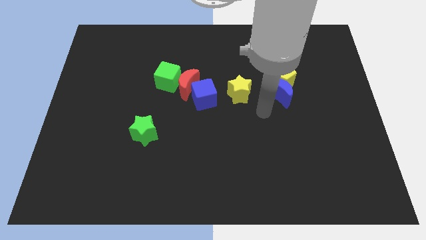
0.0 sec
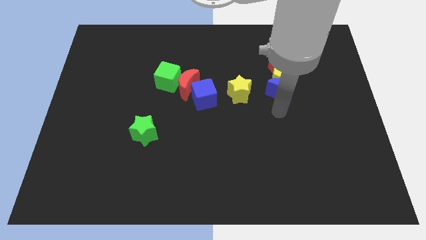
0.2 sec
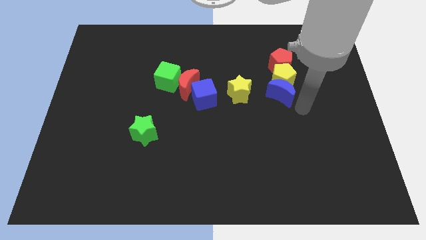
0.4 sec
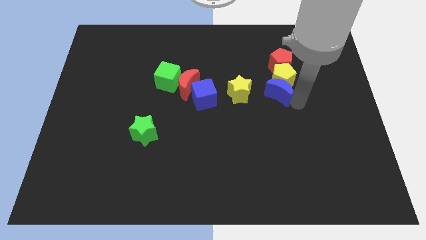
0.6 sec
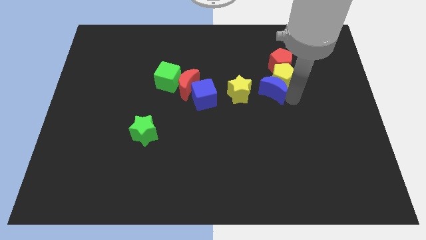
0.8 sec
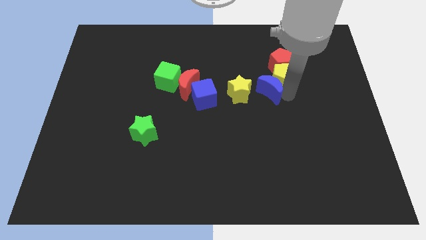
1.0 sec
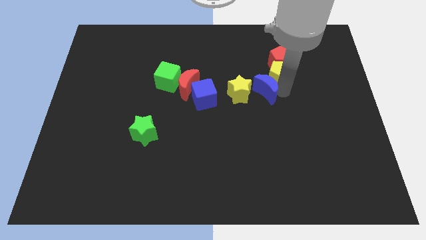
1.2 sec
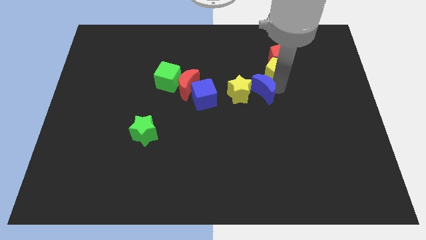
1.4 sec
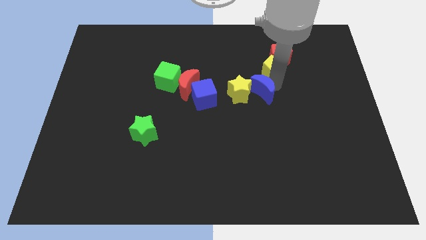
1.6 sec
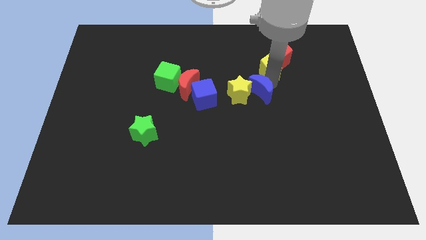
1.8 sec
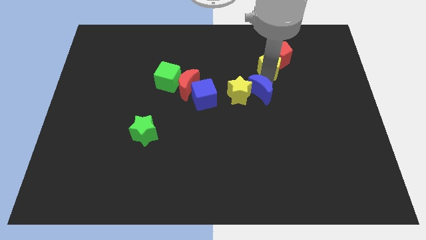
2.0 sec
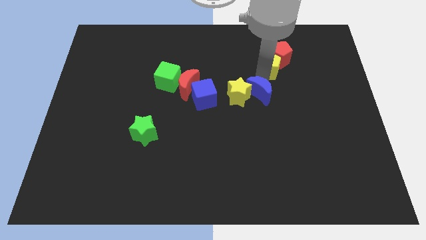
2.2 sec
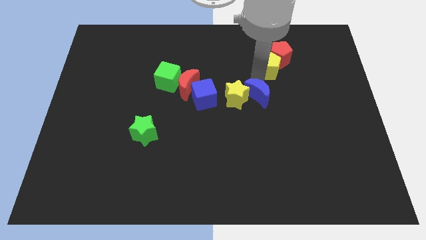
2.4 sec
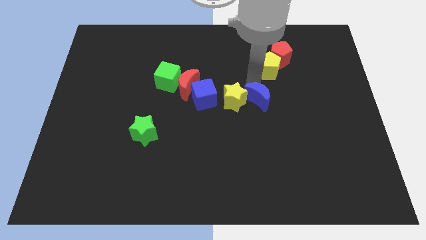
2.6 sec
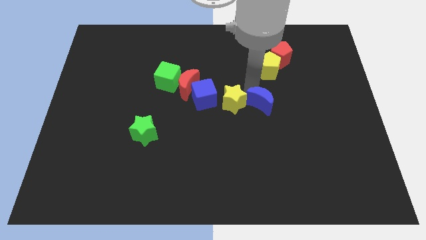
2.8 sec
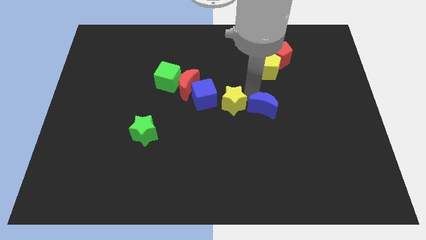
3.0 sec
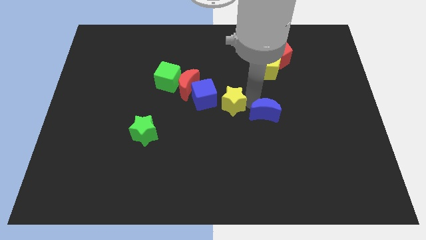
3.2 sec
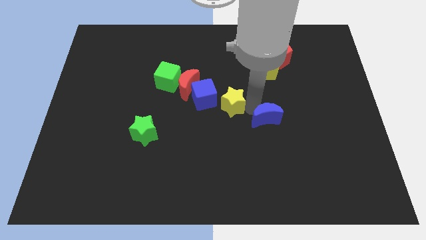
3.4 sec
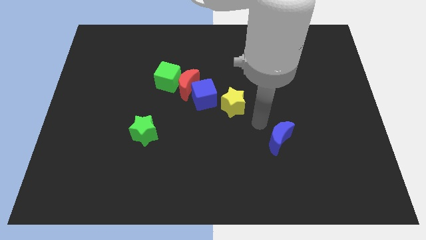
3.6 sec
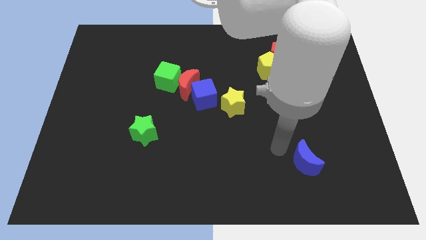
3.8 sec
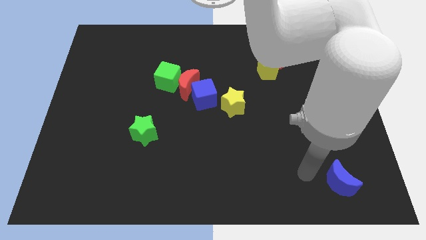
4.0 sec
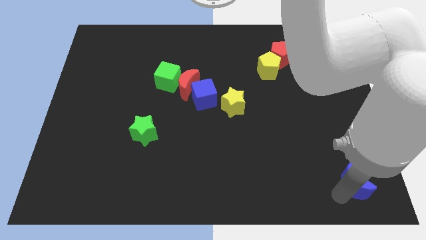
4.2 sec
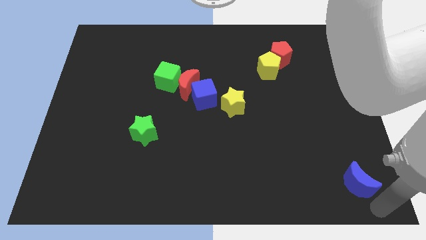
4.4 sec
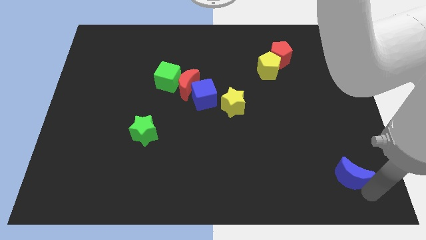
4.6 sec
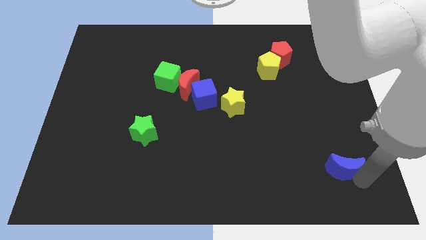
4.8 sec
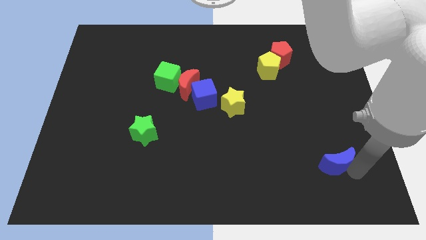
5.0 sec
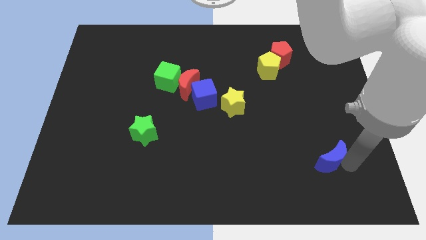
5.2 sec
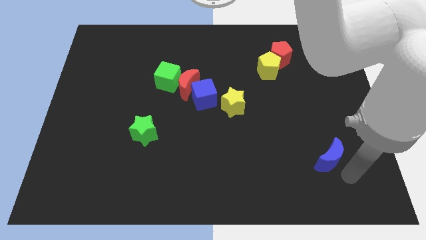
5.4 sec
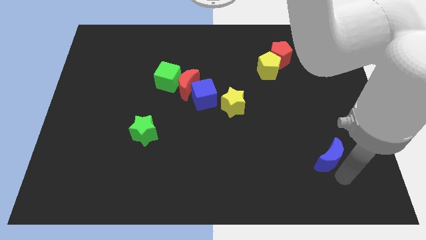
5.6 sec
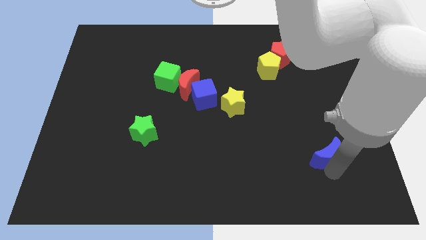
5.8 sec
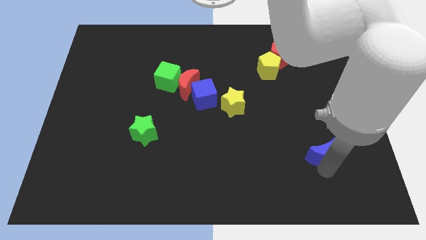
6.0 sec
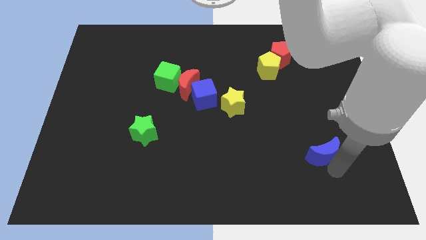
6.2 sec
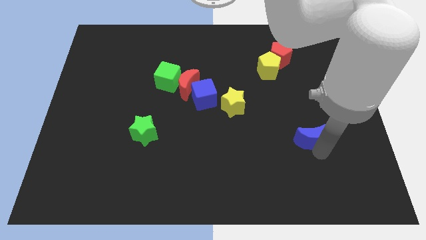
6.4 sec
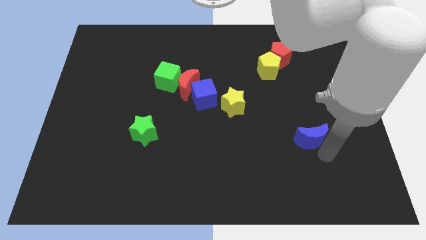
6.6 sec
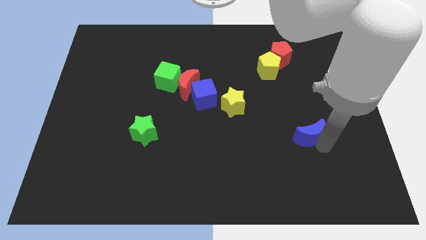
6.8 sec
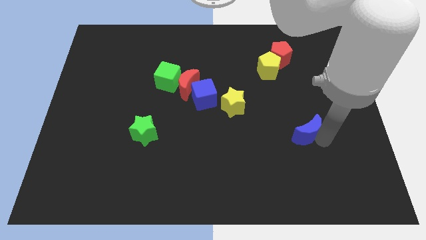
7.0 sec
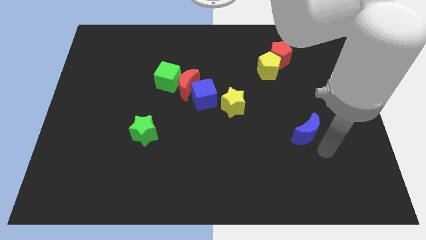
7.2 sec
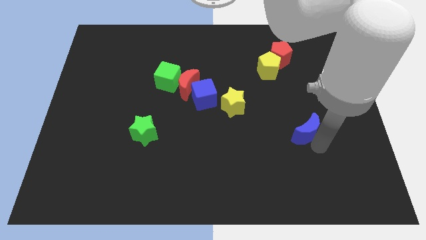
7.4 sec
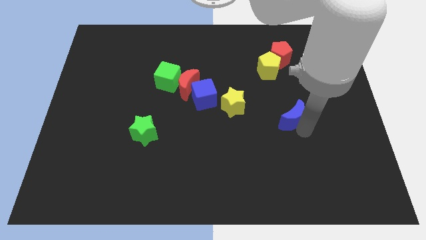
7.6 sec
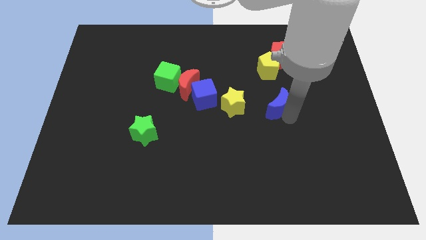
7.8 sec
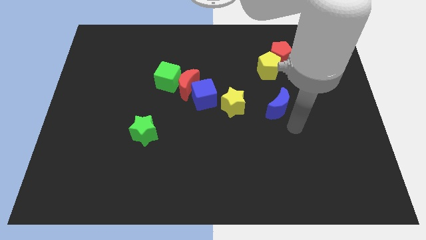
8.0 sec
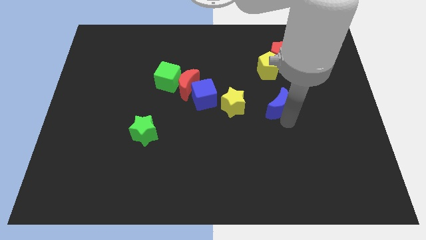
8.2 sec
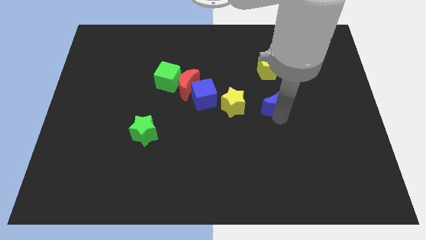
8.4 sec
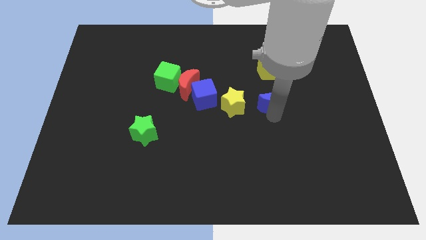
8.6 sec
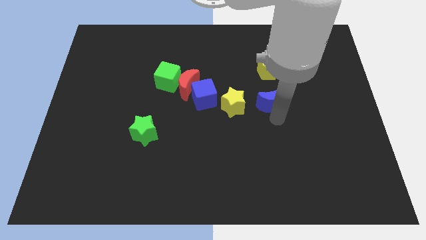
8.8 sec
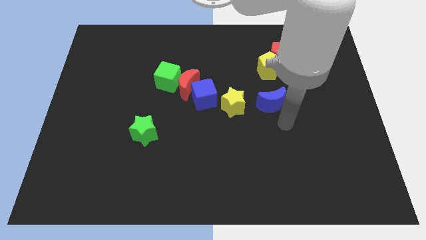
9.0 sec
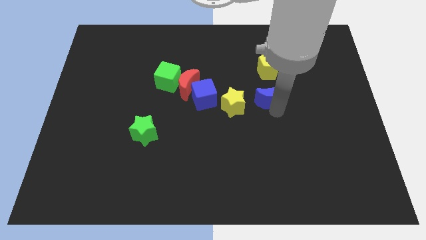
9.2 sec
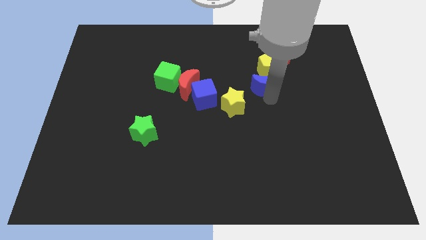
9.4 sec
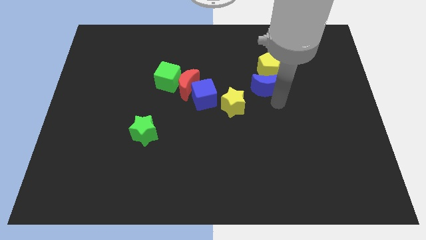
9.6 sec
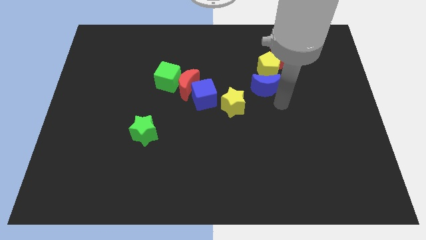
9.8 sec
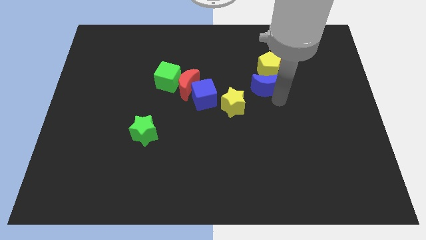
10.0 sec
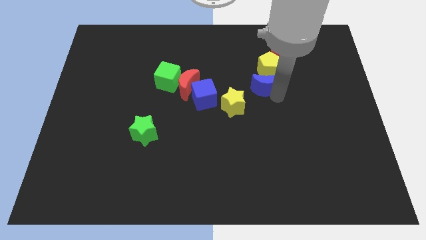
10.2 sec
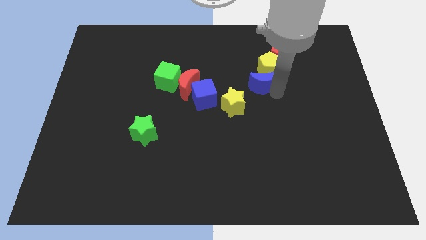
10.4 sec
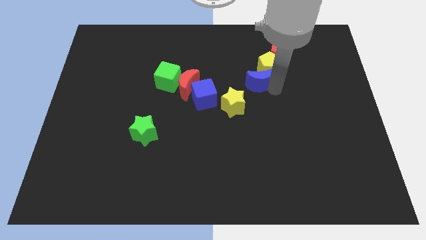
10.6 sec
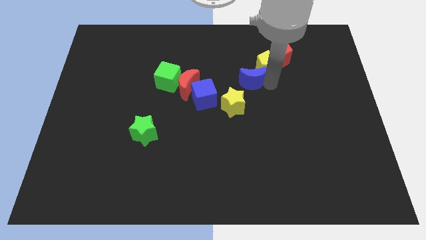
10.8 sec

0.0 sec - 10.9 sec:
slightly slide the blue moon diagonally upwards and left

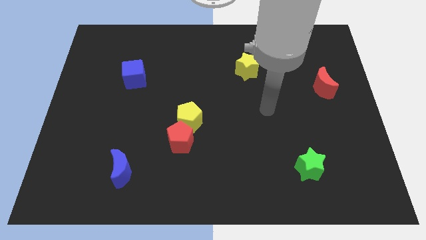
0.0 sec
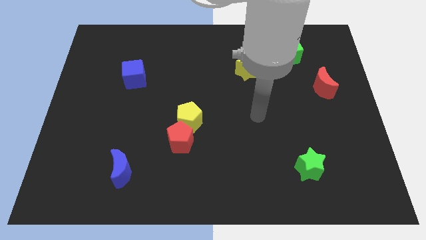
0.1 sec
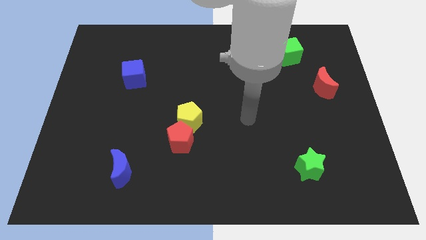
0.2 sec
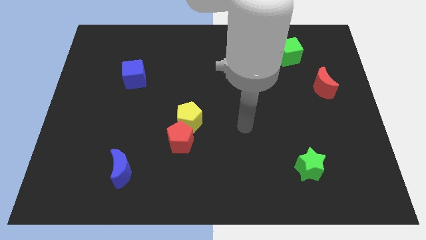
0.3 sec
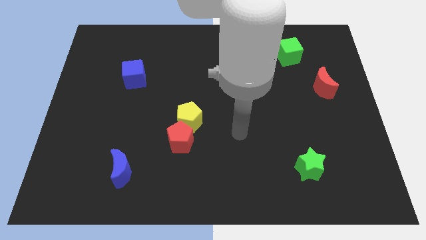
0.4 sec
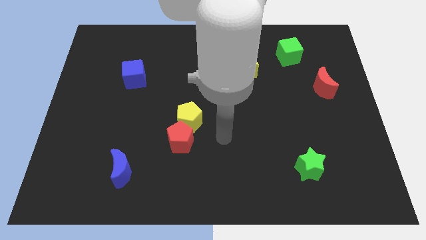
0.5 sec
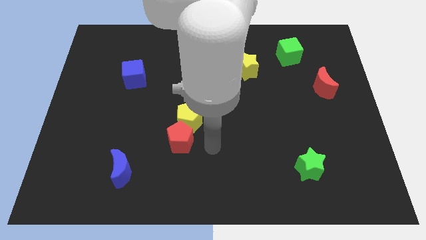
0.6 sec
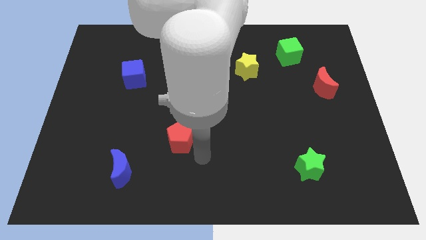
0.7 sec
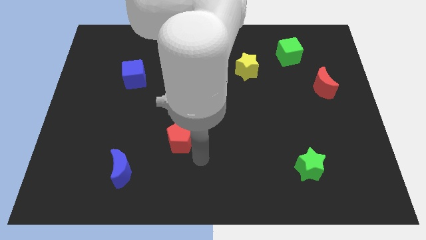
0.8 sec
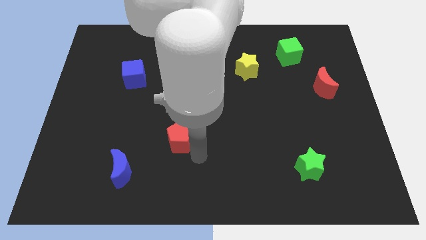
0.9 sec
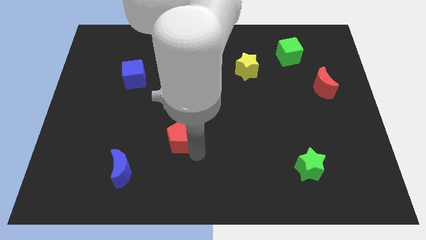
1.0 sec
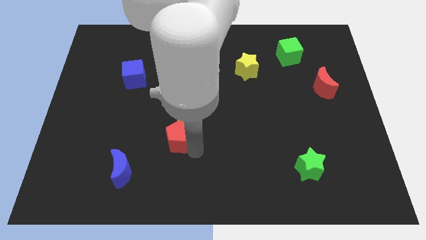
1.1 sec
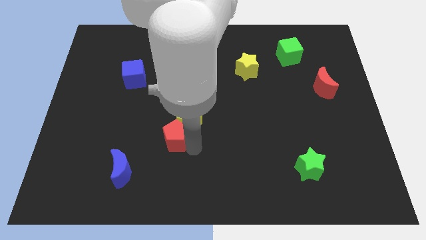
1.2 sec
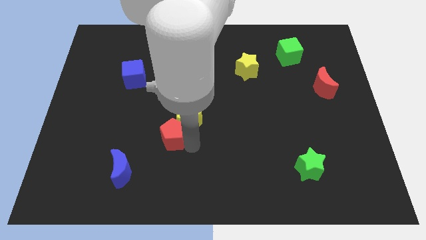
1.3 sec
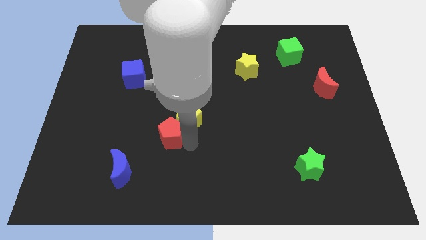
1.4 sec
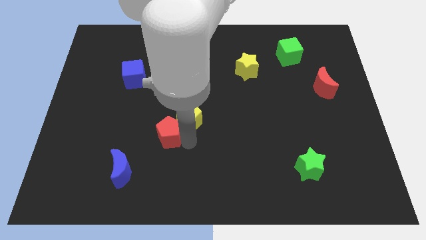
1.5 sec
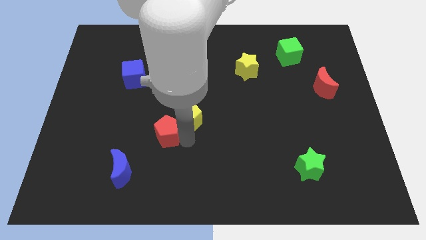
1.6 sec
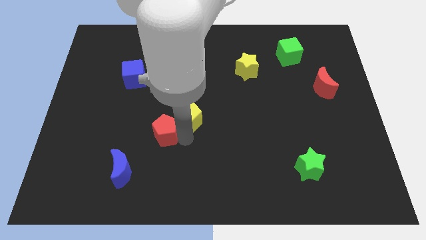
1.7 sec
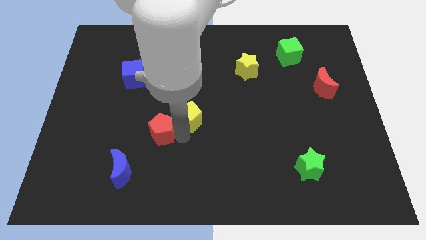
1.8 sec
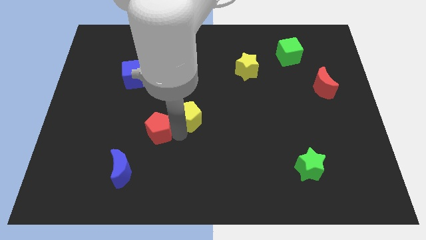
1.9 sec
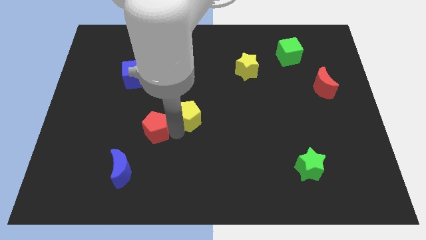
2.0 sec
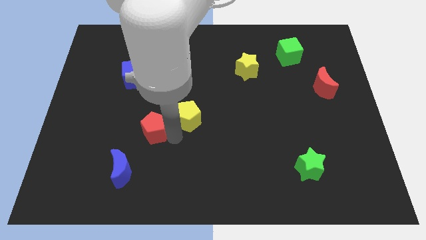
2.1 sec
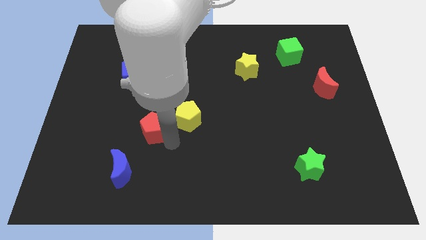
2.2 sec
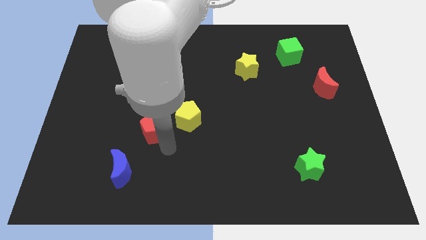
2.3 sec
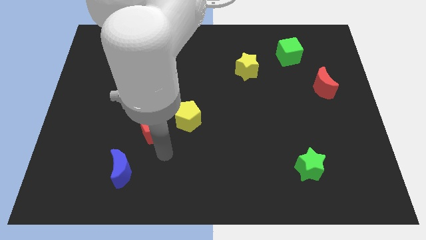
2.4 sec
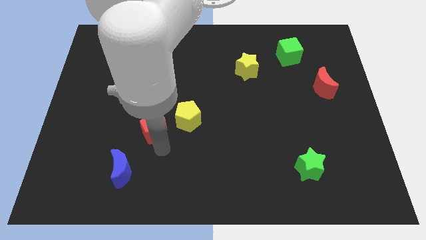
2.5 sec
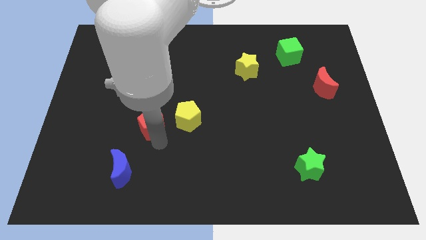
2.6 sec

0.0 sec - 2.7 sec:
slide the red pentagon a bit up and then to the left
